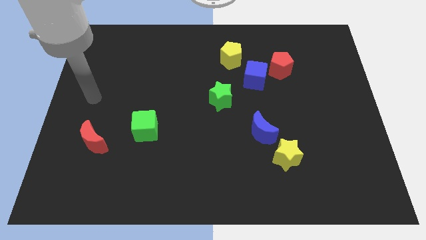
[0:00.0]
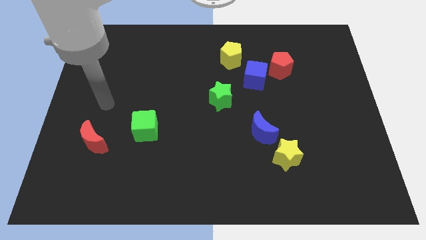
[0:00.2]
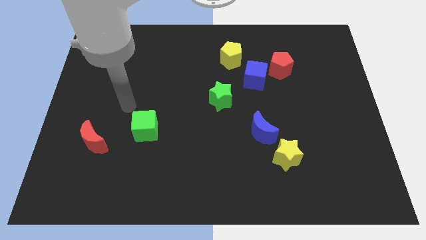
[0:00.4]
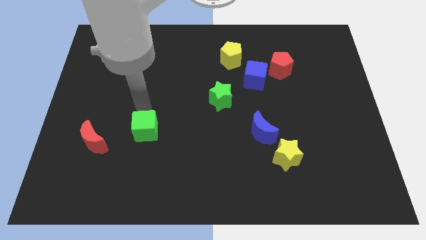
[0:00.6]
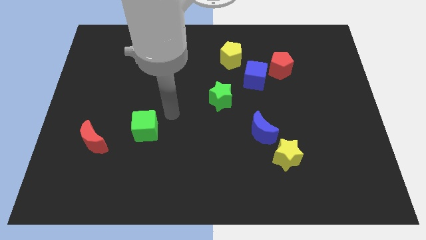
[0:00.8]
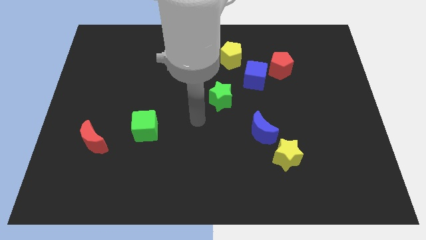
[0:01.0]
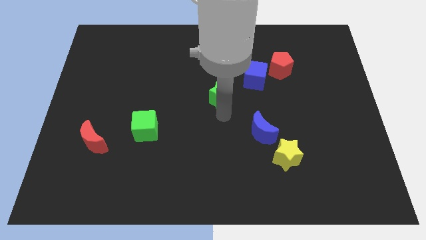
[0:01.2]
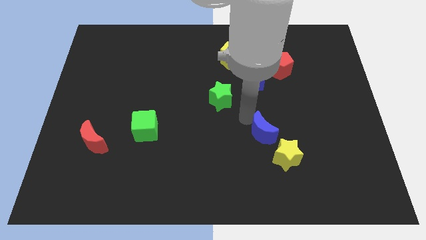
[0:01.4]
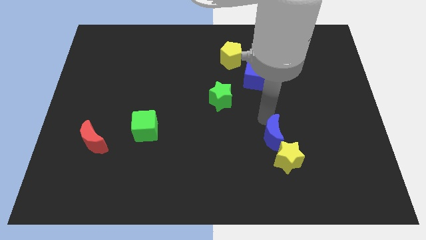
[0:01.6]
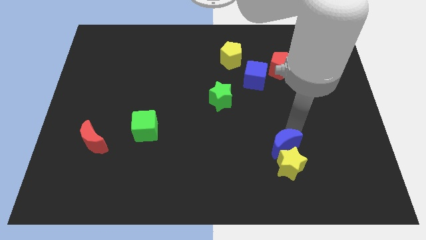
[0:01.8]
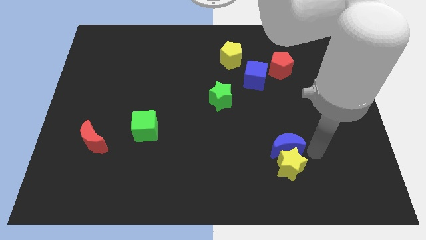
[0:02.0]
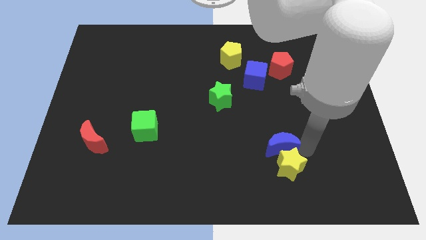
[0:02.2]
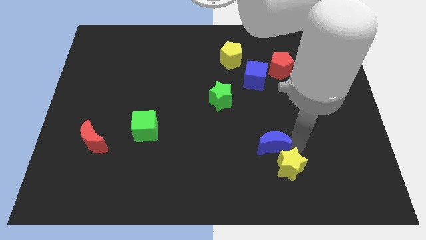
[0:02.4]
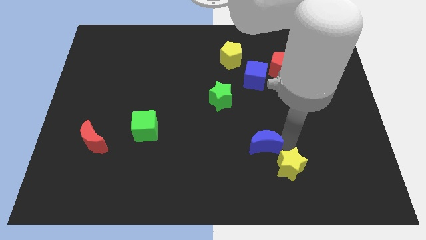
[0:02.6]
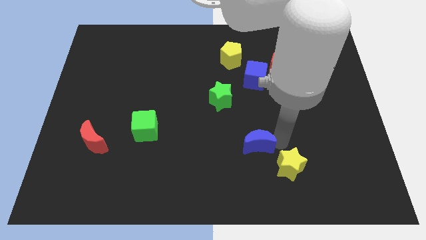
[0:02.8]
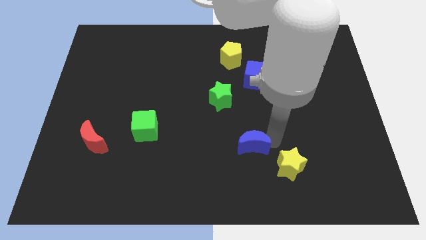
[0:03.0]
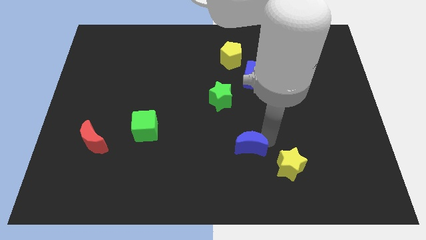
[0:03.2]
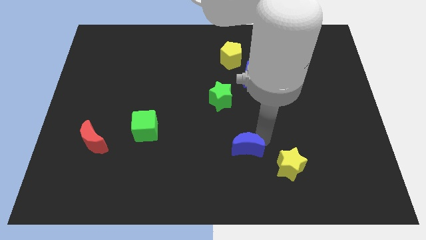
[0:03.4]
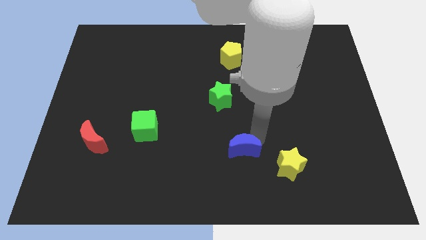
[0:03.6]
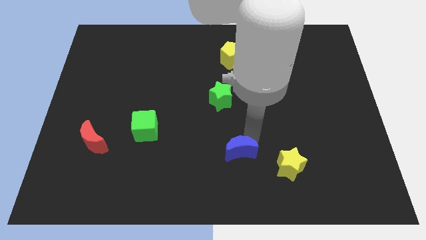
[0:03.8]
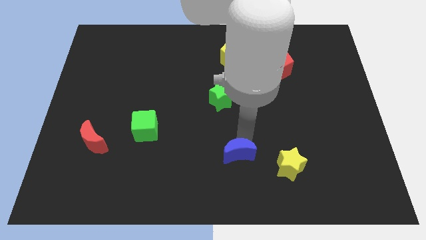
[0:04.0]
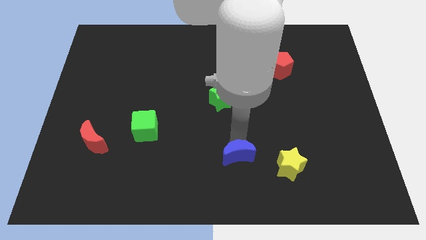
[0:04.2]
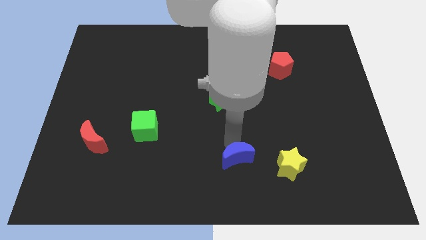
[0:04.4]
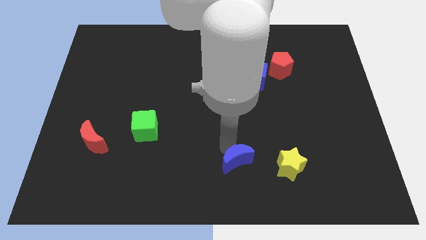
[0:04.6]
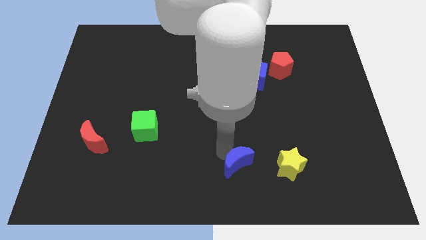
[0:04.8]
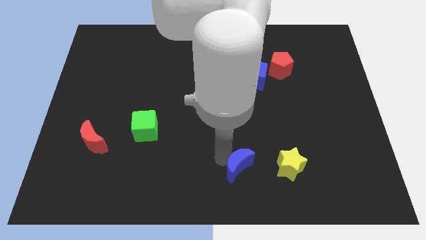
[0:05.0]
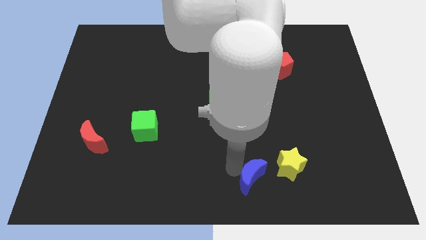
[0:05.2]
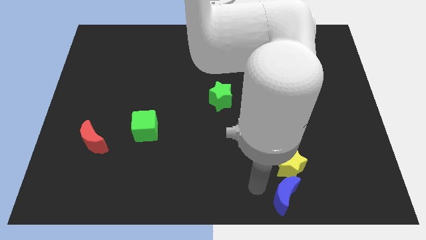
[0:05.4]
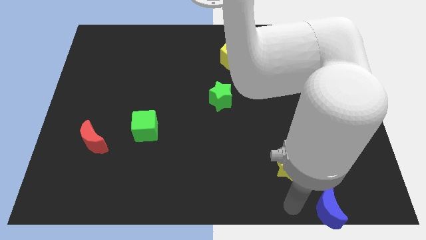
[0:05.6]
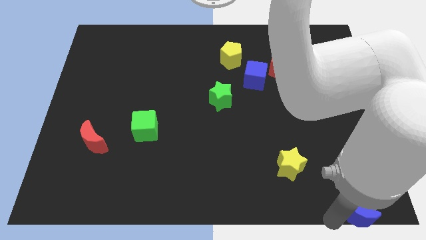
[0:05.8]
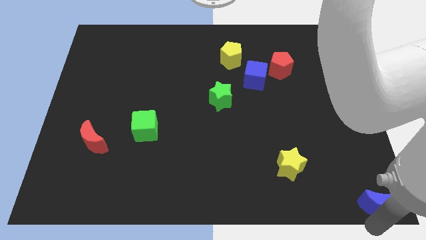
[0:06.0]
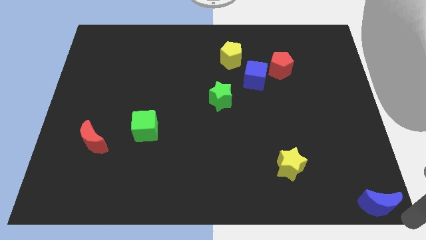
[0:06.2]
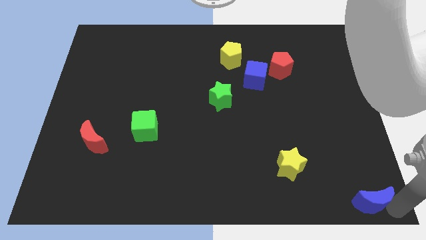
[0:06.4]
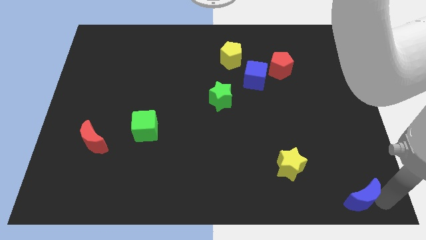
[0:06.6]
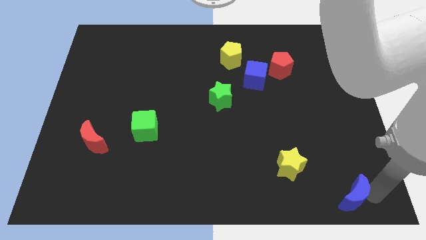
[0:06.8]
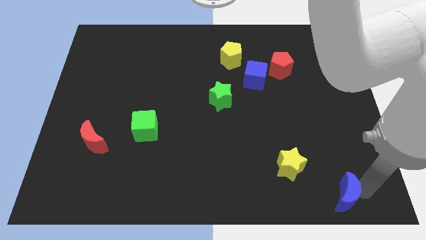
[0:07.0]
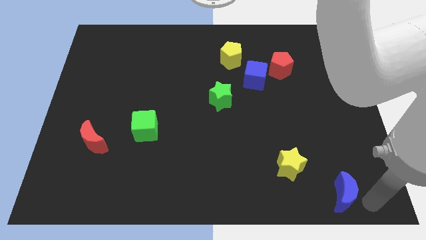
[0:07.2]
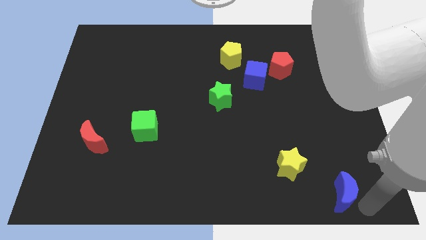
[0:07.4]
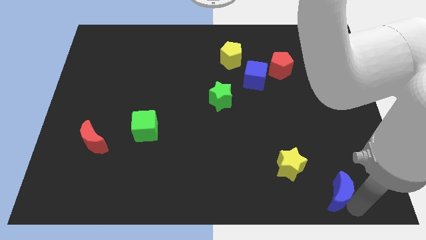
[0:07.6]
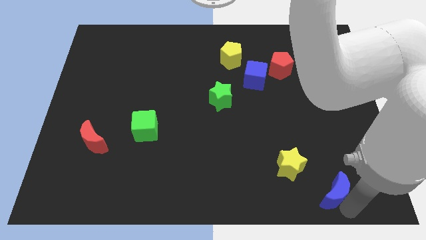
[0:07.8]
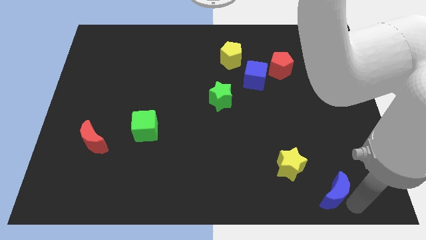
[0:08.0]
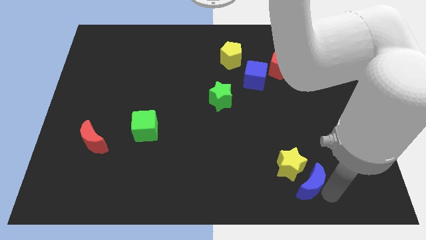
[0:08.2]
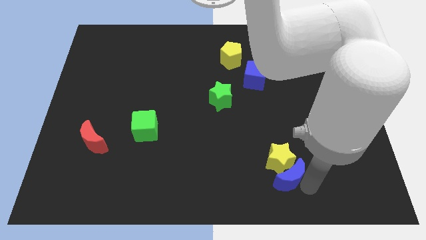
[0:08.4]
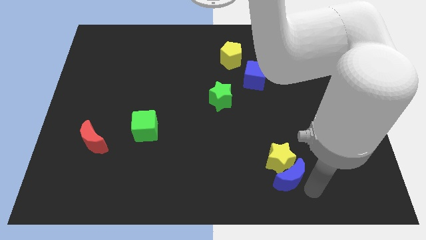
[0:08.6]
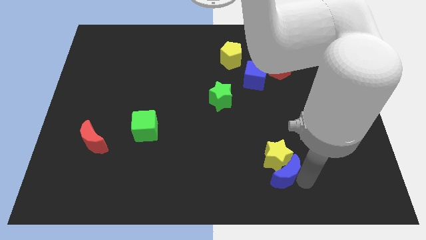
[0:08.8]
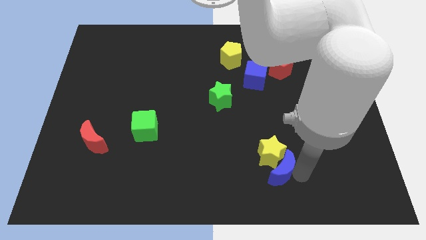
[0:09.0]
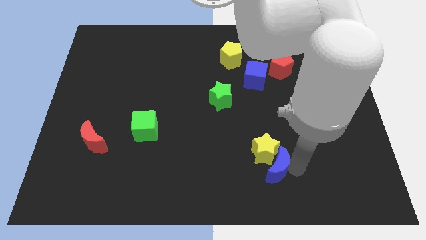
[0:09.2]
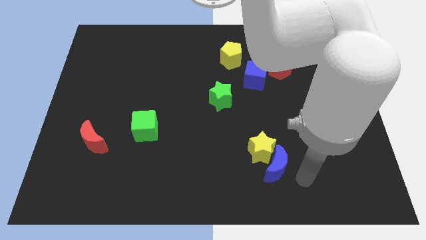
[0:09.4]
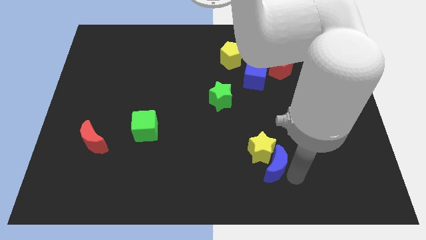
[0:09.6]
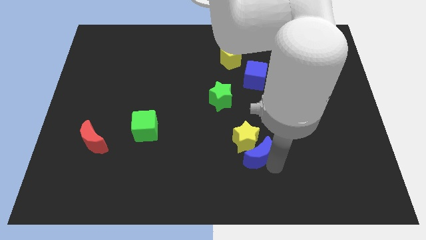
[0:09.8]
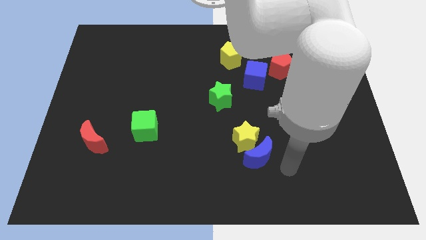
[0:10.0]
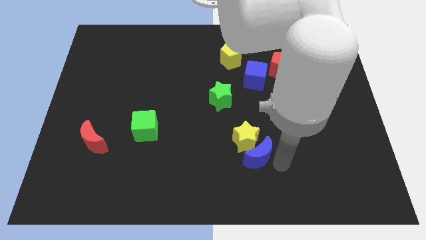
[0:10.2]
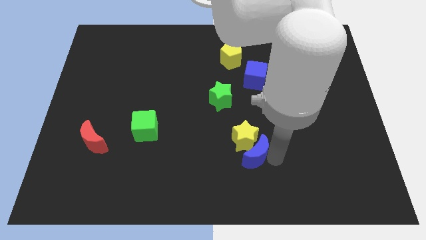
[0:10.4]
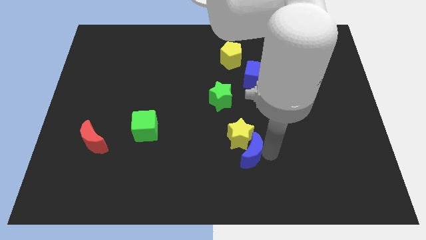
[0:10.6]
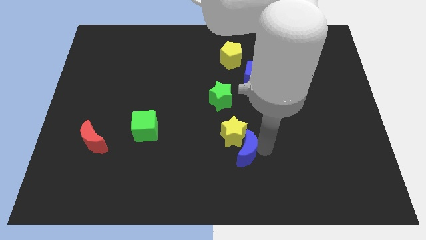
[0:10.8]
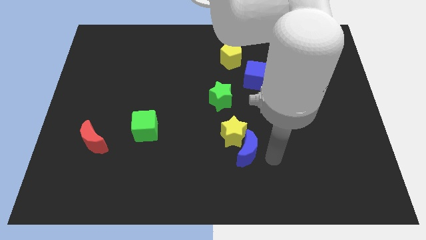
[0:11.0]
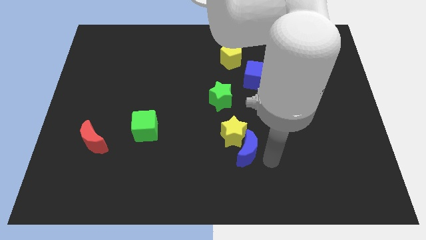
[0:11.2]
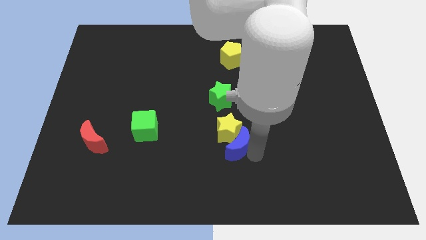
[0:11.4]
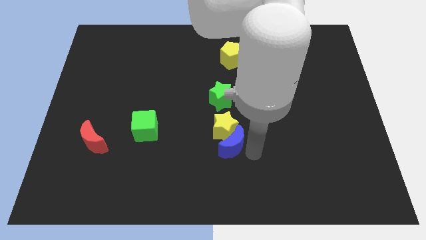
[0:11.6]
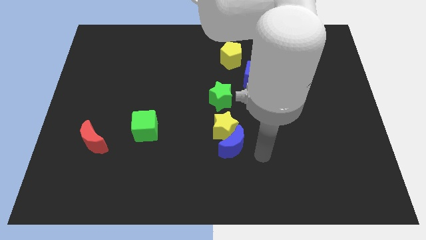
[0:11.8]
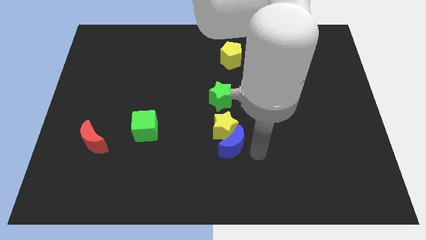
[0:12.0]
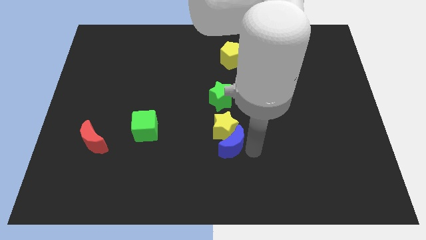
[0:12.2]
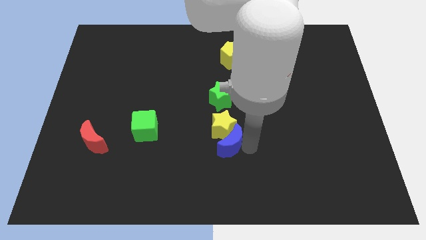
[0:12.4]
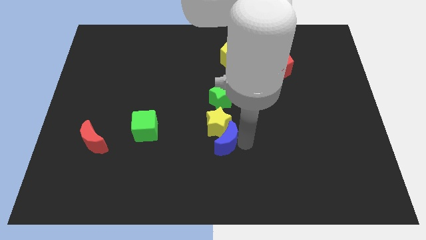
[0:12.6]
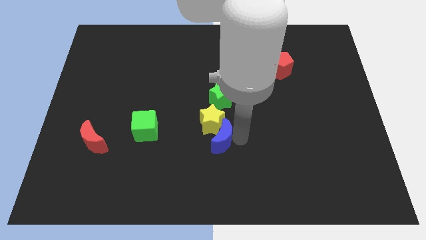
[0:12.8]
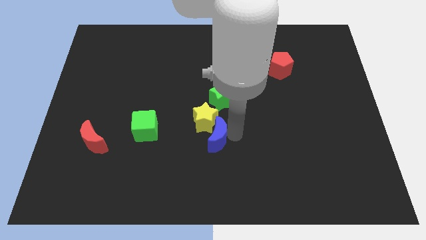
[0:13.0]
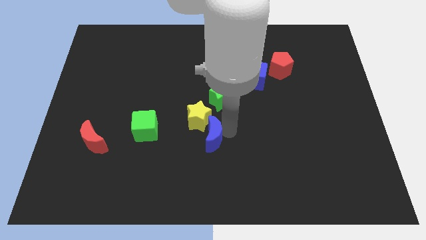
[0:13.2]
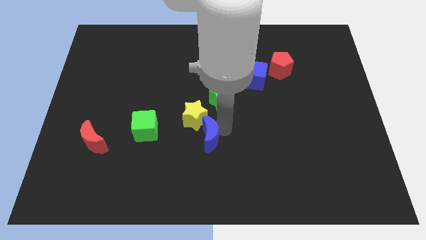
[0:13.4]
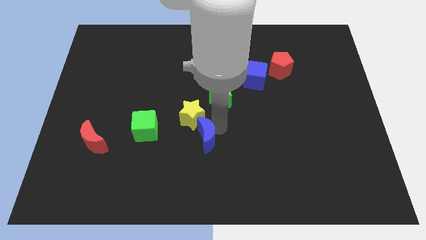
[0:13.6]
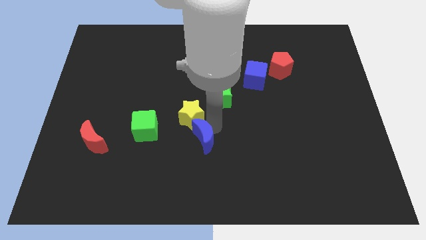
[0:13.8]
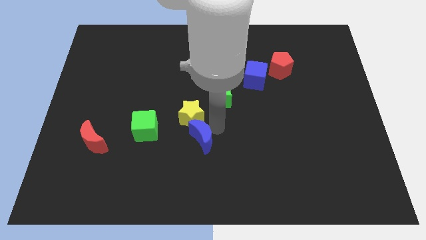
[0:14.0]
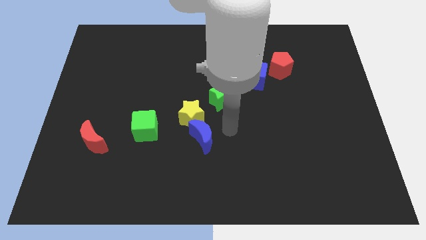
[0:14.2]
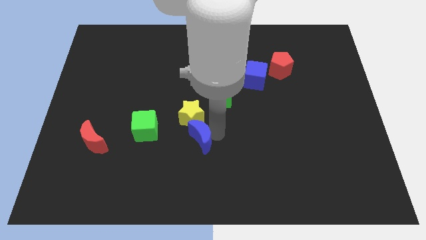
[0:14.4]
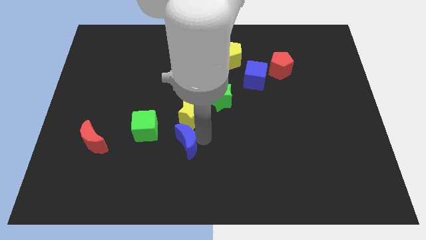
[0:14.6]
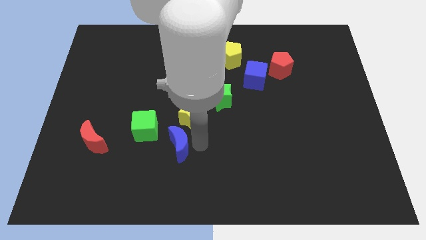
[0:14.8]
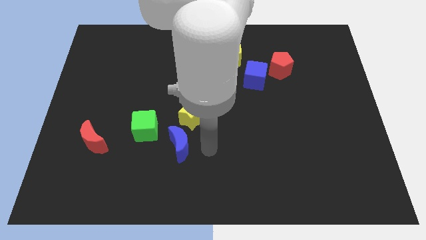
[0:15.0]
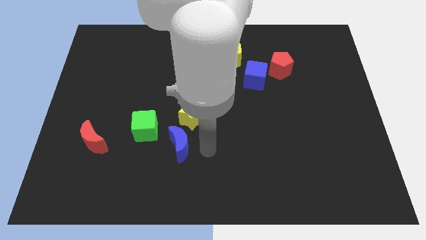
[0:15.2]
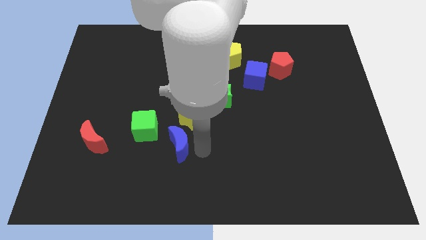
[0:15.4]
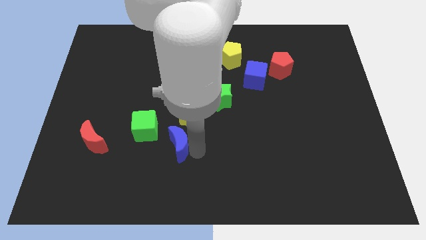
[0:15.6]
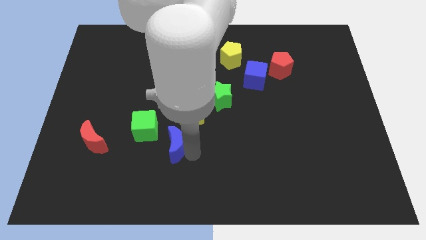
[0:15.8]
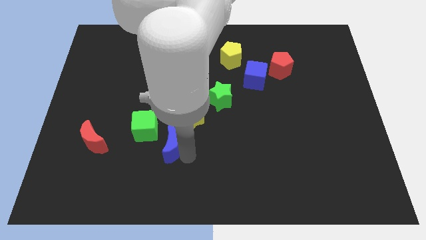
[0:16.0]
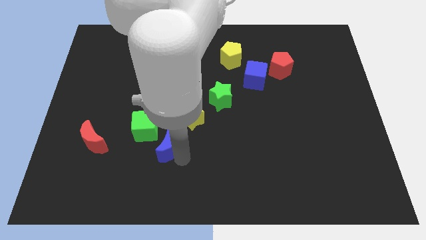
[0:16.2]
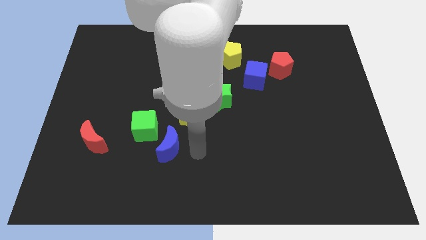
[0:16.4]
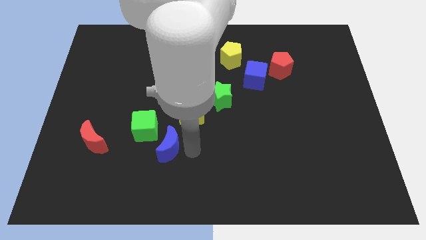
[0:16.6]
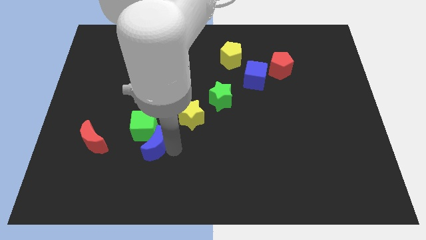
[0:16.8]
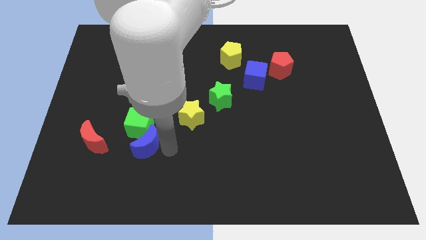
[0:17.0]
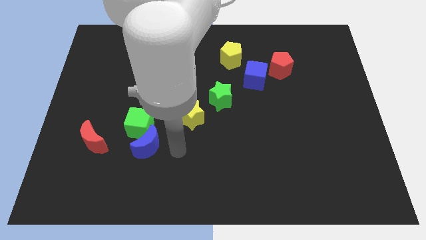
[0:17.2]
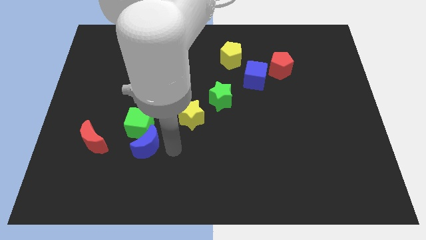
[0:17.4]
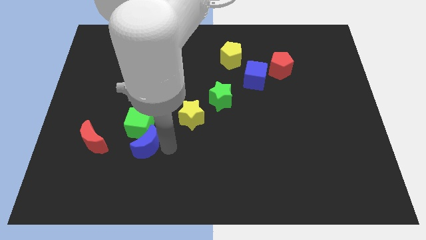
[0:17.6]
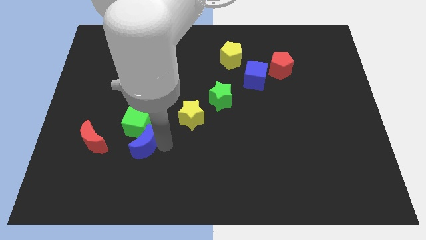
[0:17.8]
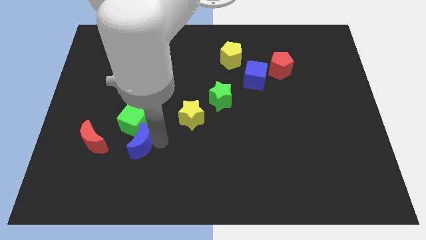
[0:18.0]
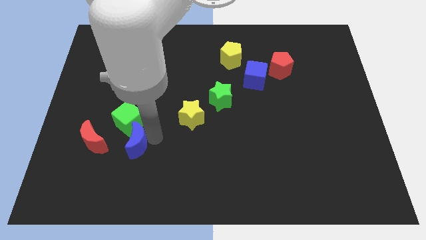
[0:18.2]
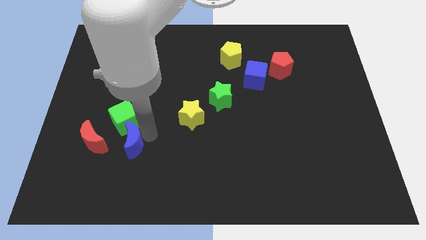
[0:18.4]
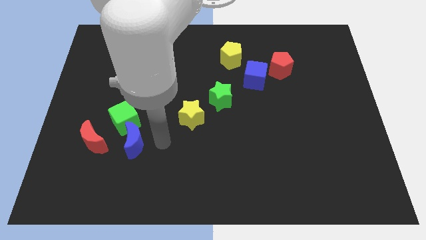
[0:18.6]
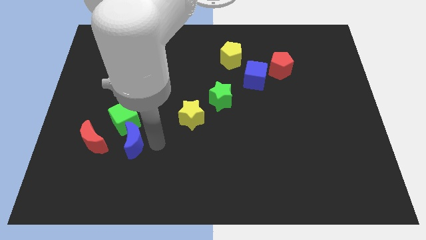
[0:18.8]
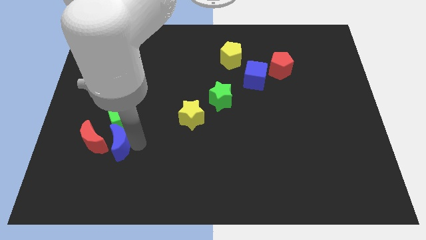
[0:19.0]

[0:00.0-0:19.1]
put the blue moon close to the red moon
